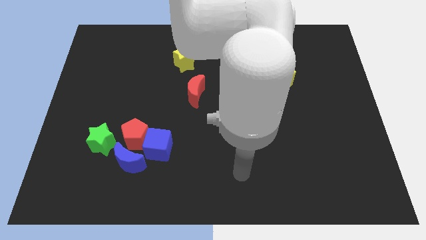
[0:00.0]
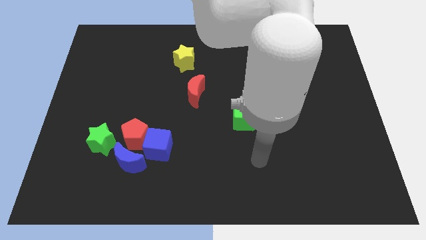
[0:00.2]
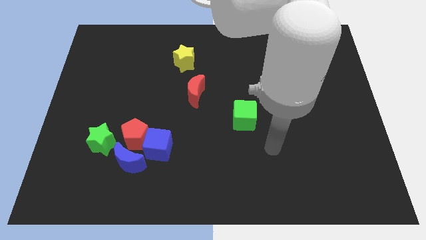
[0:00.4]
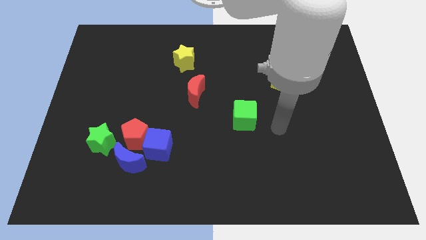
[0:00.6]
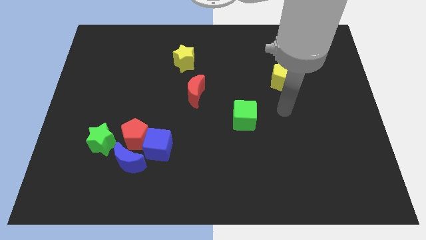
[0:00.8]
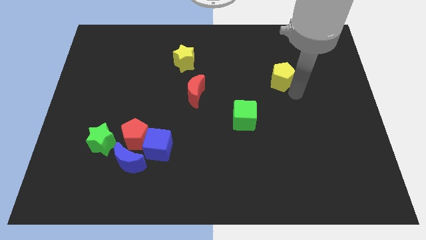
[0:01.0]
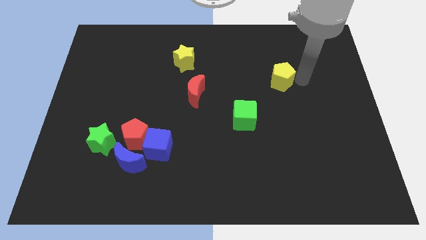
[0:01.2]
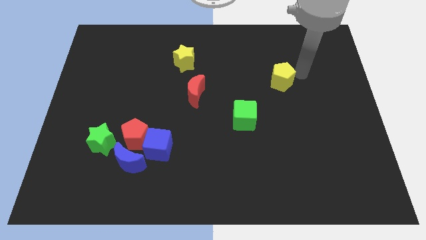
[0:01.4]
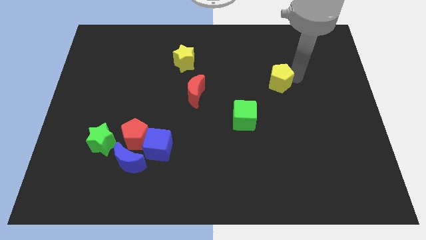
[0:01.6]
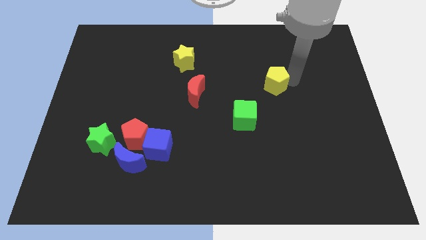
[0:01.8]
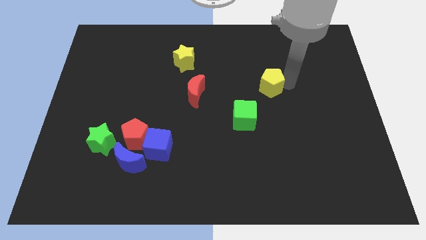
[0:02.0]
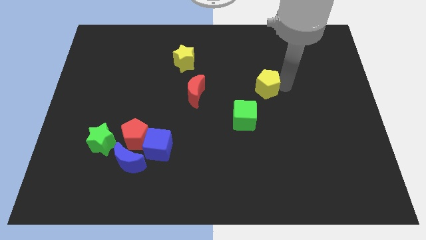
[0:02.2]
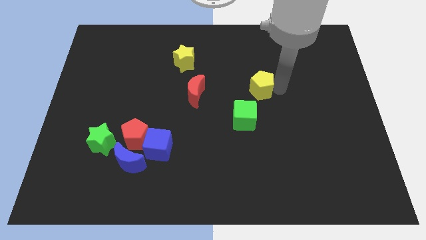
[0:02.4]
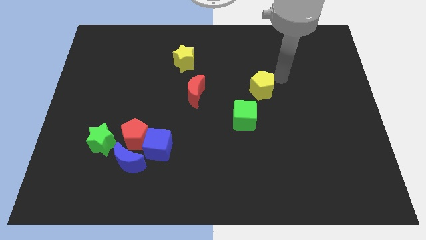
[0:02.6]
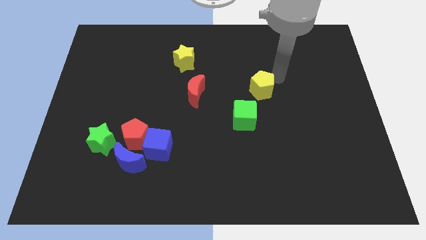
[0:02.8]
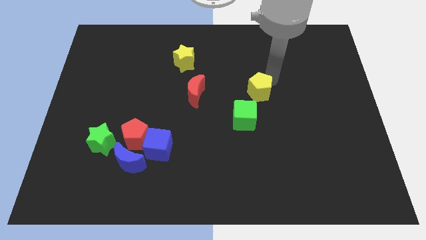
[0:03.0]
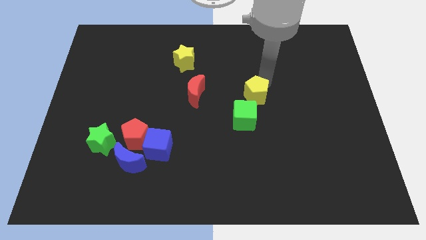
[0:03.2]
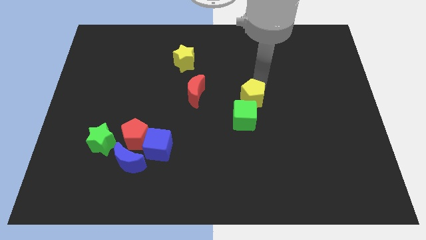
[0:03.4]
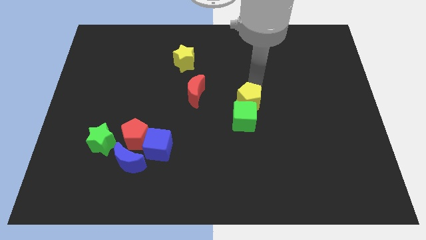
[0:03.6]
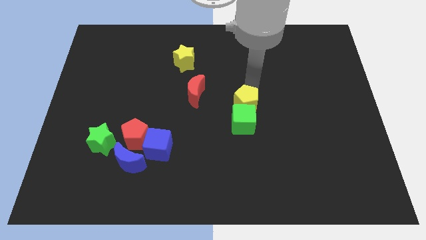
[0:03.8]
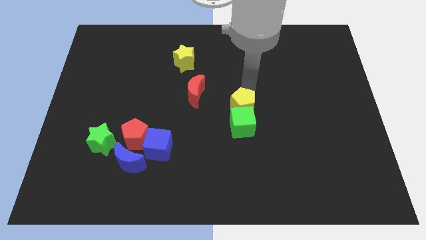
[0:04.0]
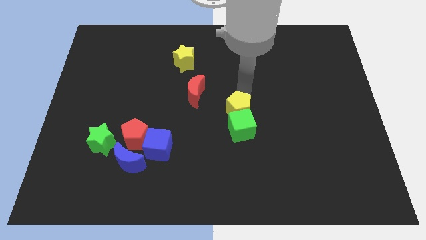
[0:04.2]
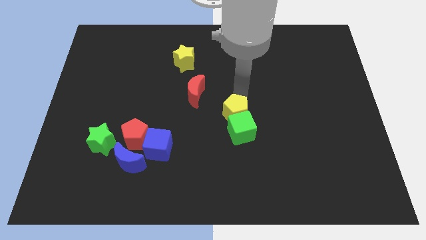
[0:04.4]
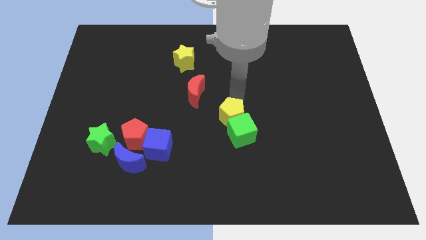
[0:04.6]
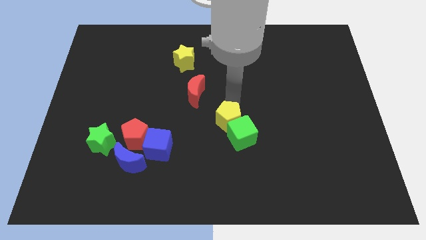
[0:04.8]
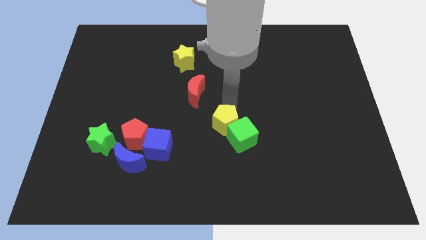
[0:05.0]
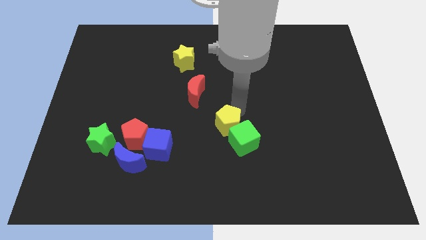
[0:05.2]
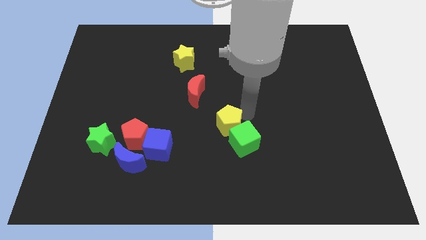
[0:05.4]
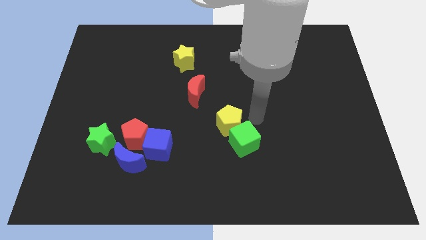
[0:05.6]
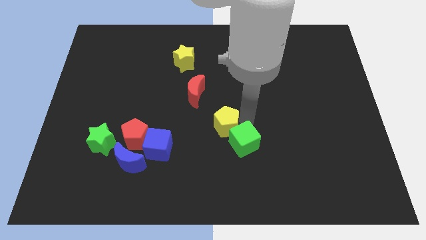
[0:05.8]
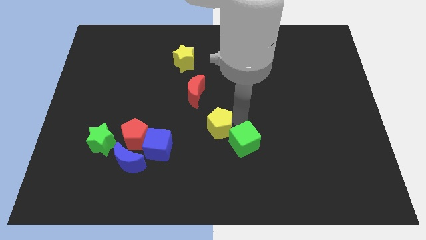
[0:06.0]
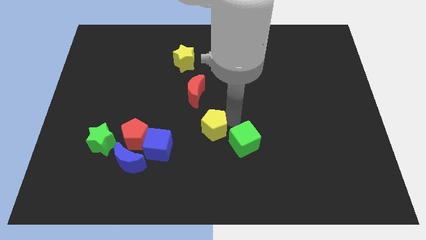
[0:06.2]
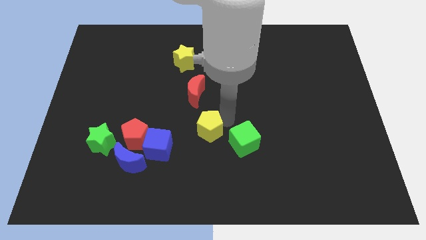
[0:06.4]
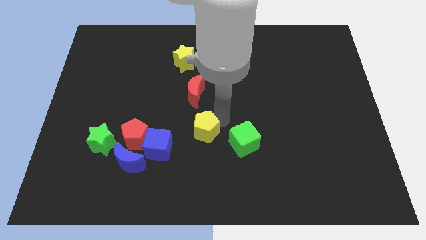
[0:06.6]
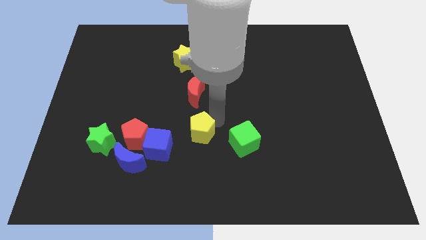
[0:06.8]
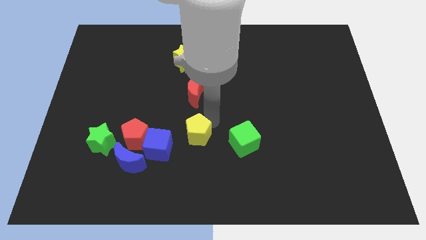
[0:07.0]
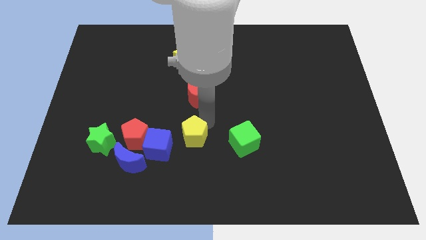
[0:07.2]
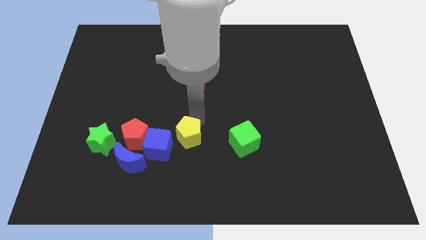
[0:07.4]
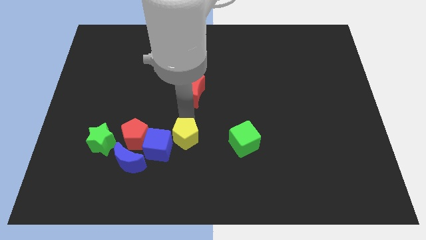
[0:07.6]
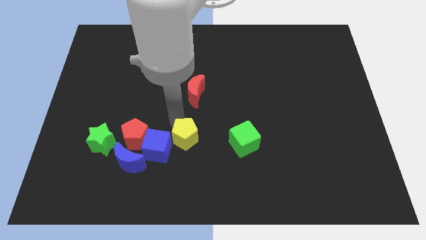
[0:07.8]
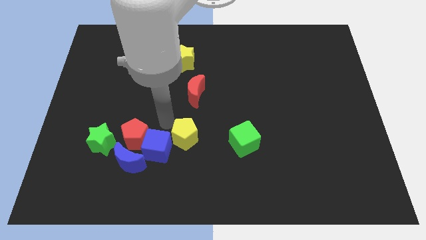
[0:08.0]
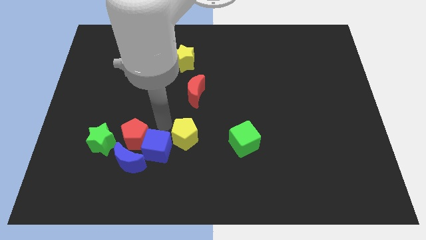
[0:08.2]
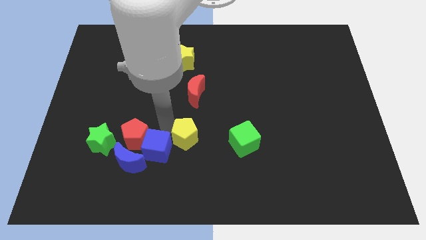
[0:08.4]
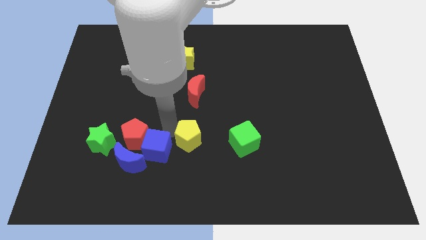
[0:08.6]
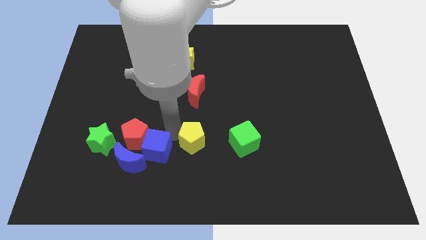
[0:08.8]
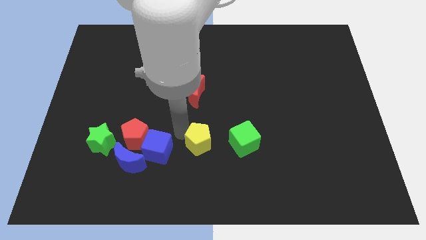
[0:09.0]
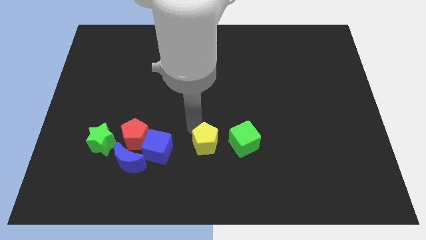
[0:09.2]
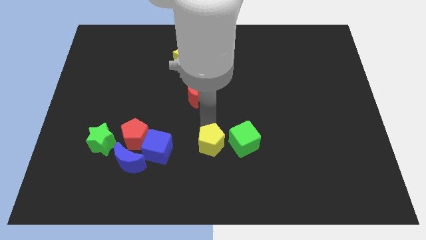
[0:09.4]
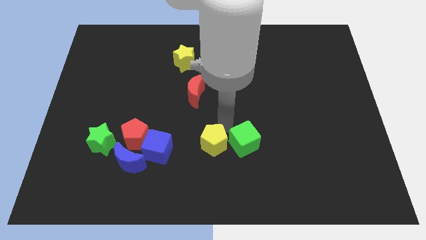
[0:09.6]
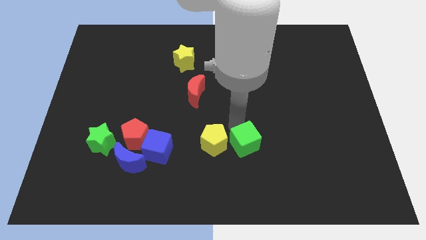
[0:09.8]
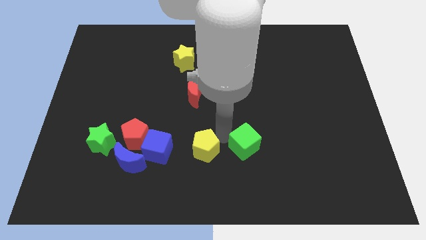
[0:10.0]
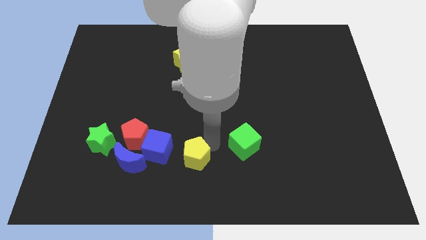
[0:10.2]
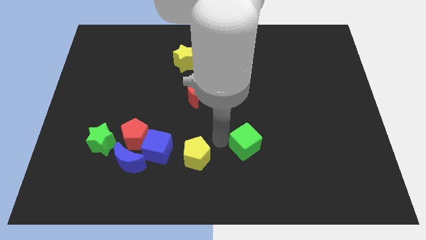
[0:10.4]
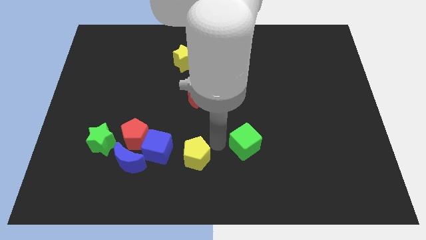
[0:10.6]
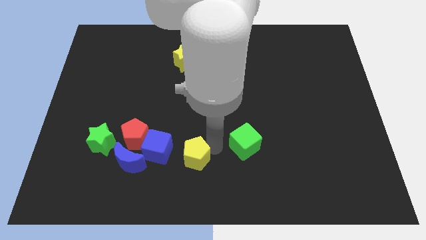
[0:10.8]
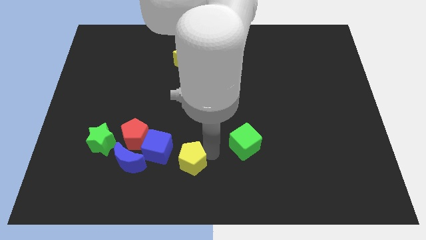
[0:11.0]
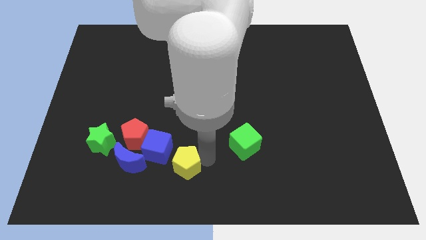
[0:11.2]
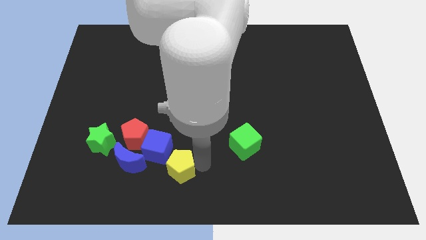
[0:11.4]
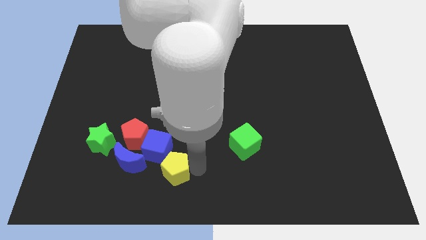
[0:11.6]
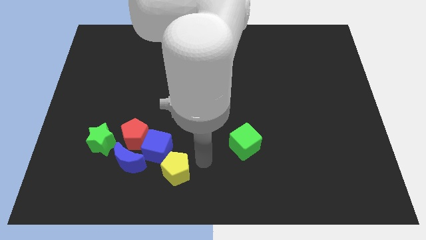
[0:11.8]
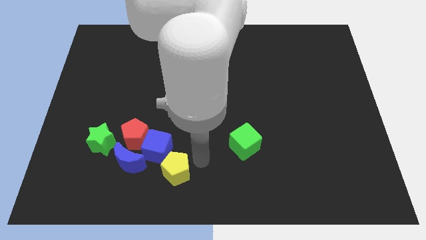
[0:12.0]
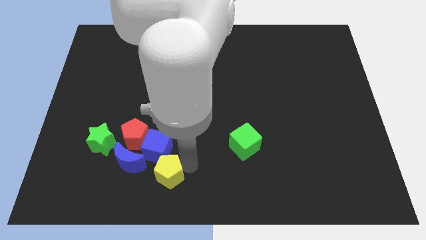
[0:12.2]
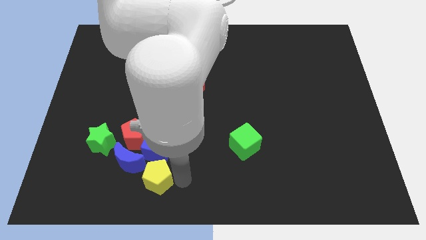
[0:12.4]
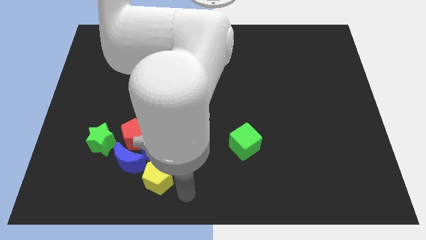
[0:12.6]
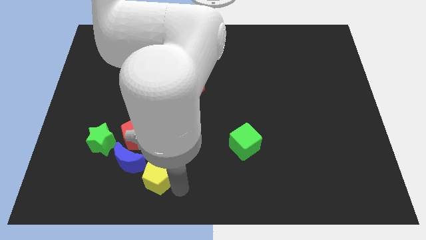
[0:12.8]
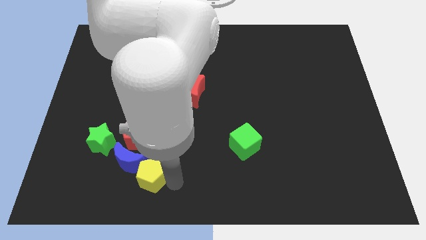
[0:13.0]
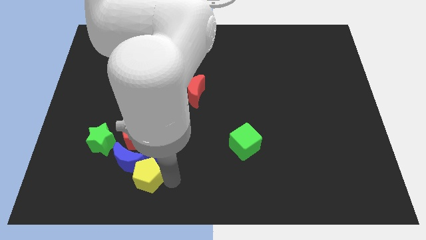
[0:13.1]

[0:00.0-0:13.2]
move the yellow pentagon close to the blue moon

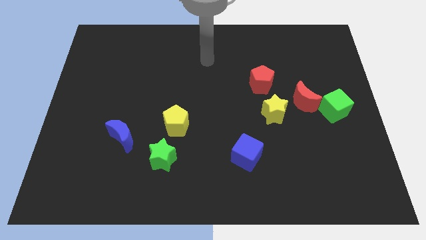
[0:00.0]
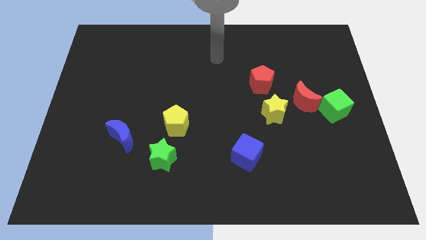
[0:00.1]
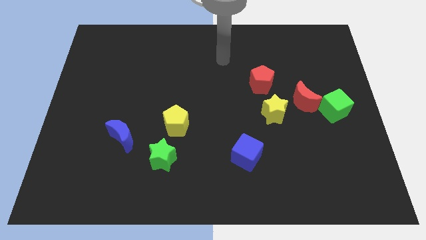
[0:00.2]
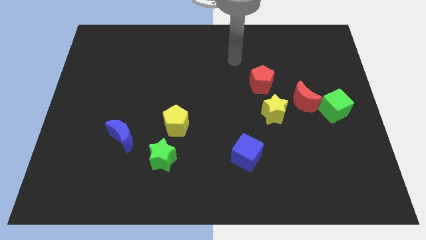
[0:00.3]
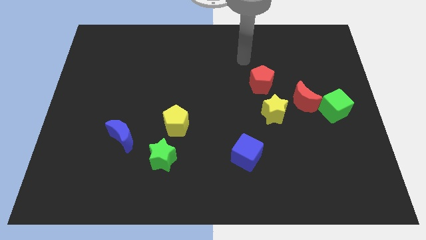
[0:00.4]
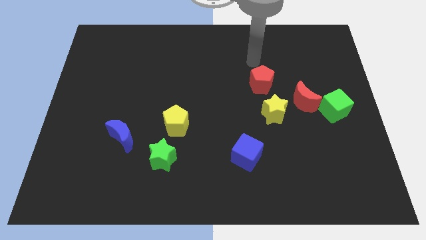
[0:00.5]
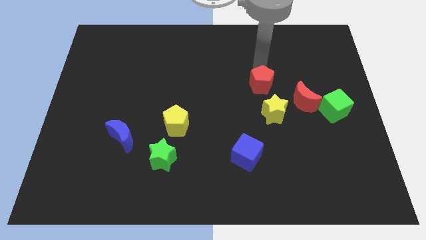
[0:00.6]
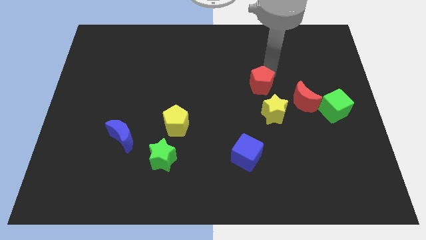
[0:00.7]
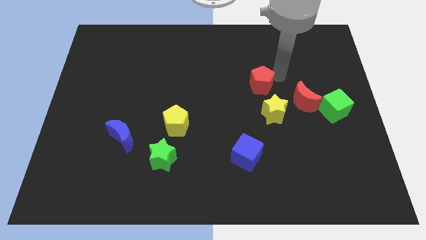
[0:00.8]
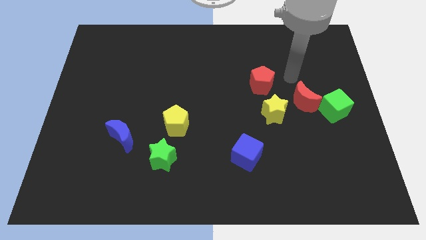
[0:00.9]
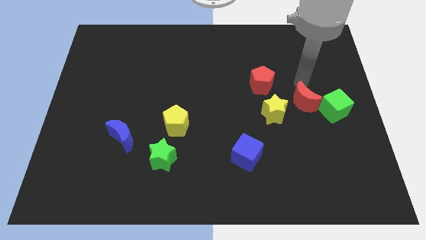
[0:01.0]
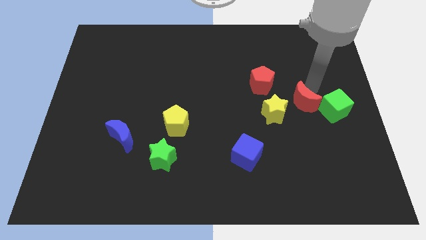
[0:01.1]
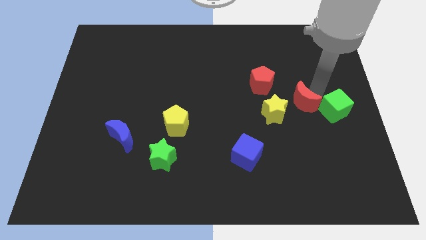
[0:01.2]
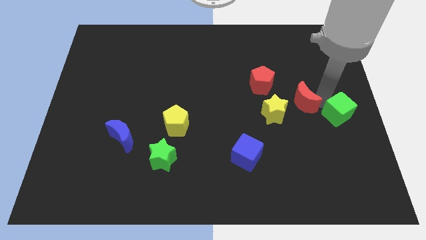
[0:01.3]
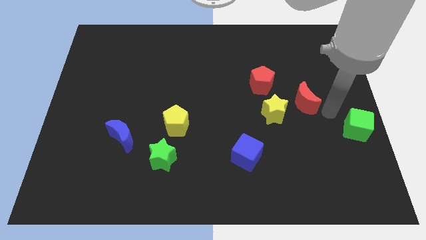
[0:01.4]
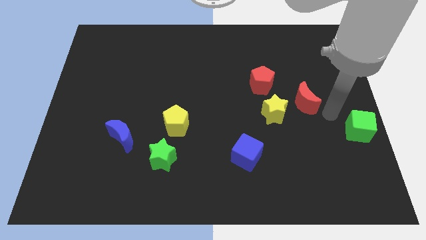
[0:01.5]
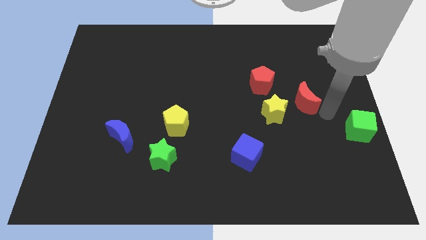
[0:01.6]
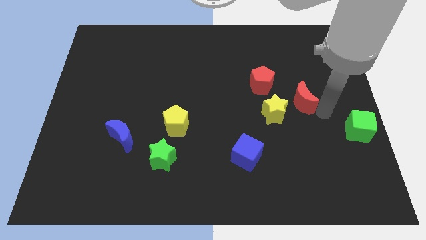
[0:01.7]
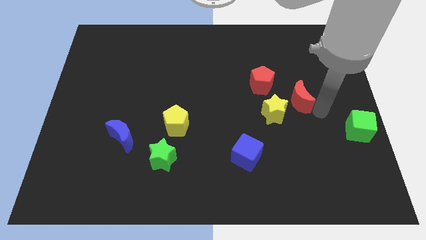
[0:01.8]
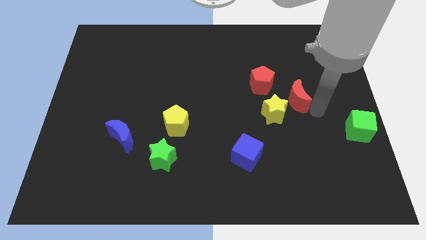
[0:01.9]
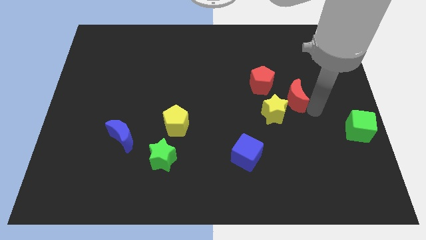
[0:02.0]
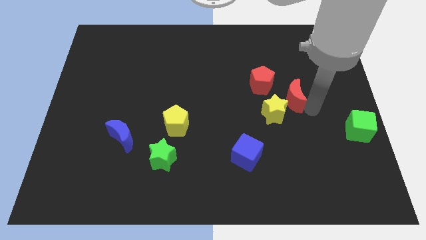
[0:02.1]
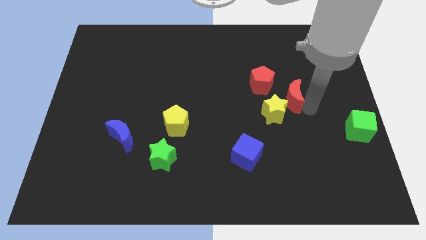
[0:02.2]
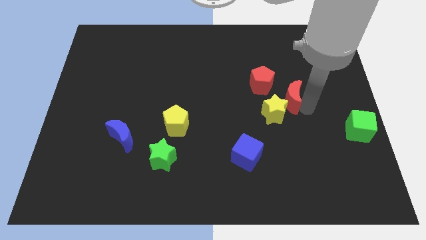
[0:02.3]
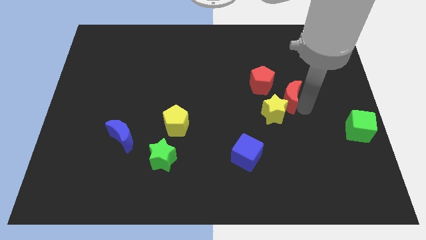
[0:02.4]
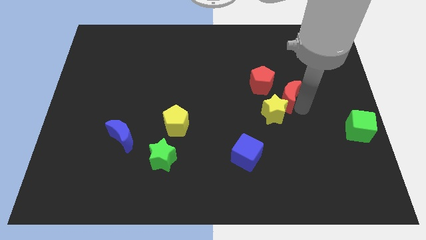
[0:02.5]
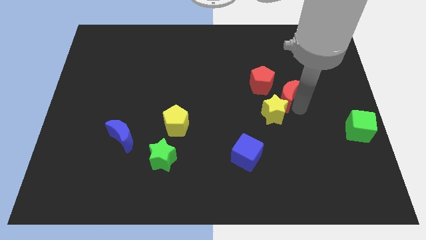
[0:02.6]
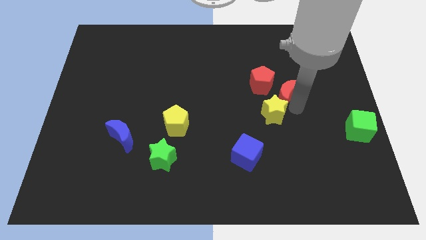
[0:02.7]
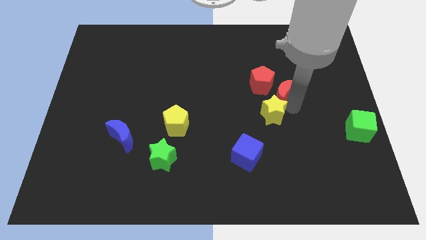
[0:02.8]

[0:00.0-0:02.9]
slide the red moon to the red pentagon
